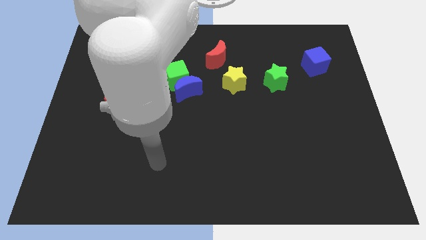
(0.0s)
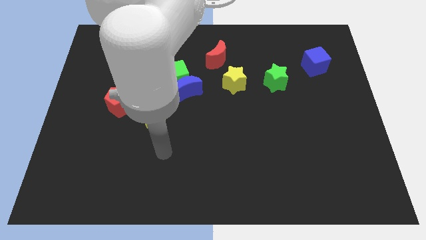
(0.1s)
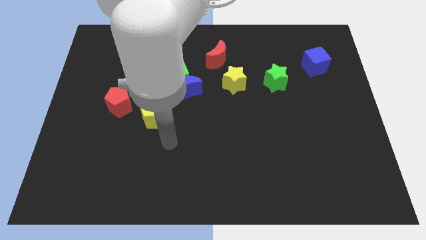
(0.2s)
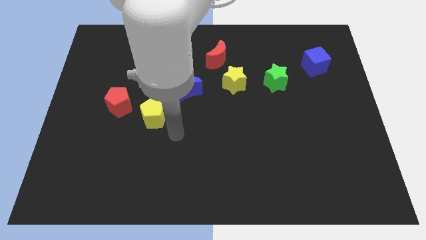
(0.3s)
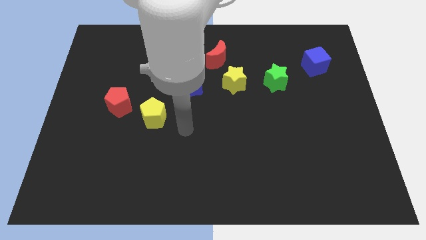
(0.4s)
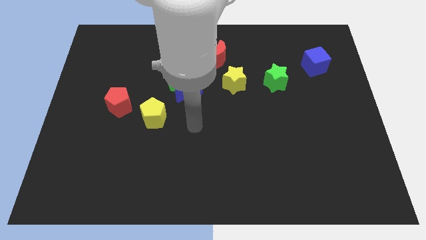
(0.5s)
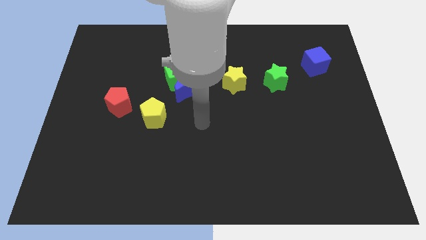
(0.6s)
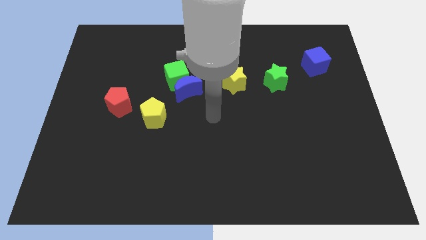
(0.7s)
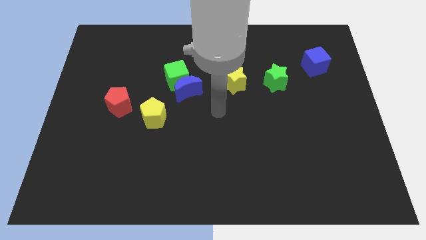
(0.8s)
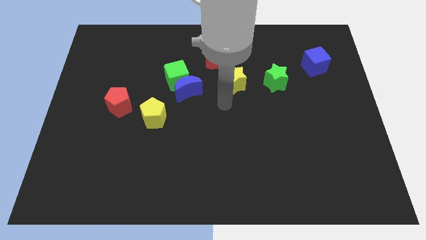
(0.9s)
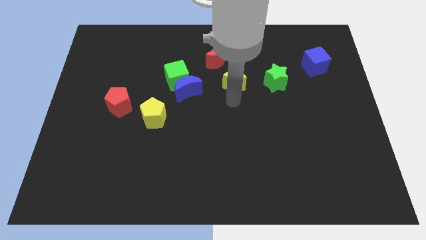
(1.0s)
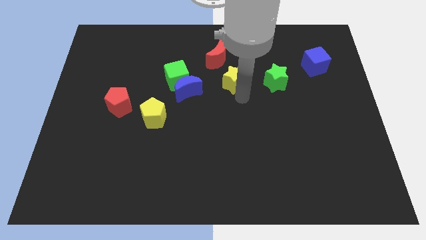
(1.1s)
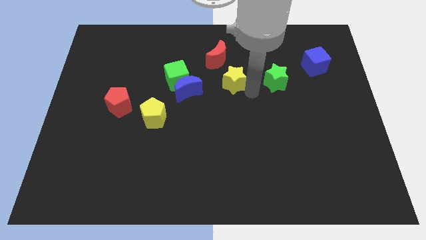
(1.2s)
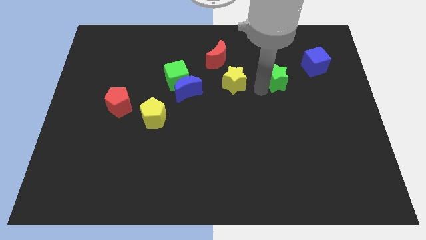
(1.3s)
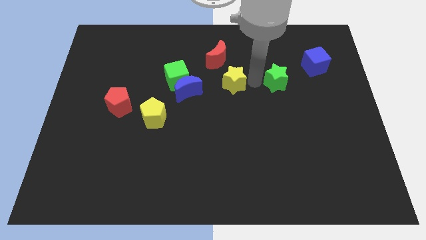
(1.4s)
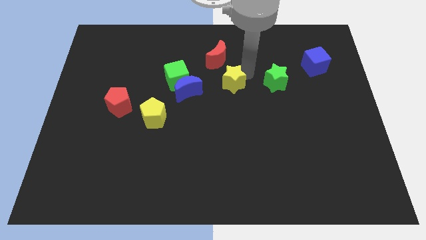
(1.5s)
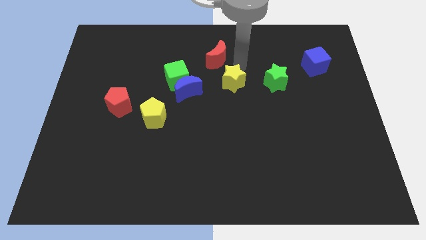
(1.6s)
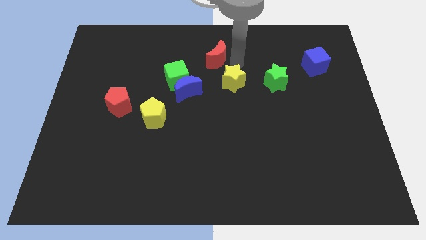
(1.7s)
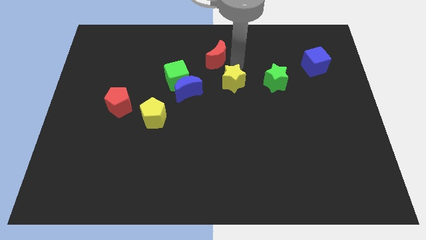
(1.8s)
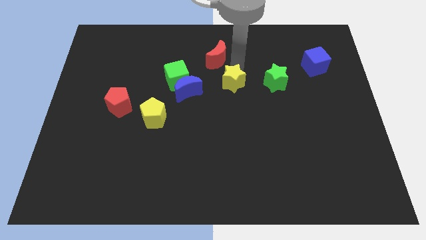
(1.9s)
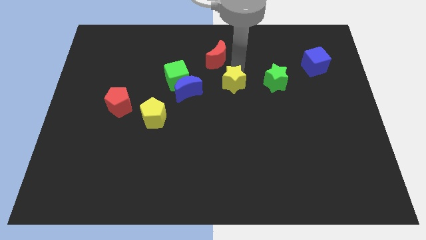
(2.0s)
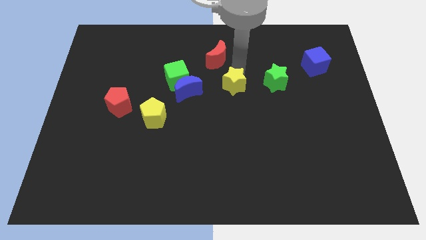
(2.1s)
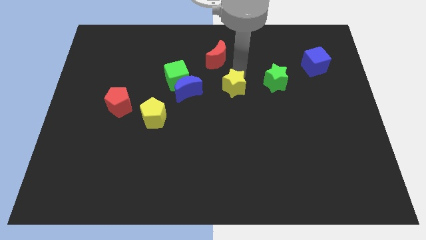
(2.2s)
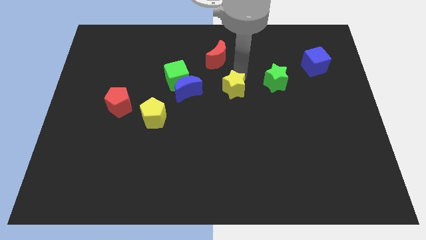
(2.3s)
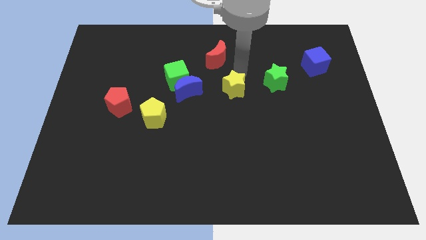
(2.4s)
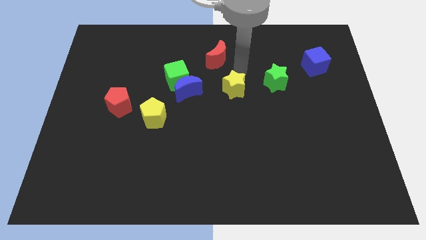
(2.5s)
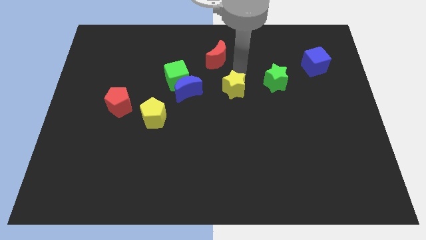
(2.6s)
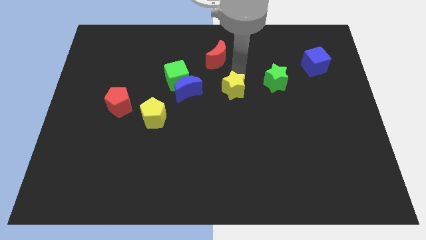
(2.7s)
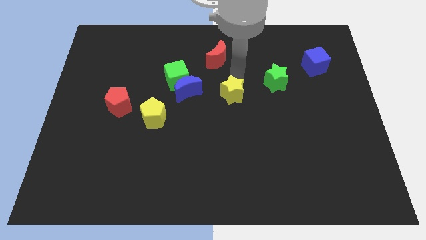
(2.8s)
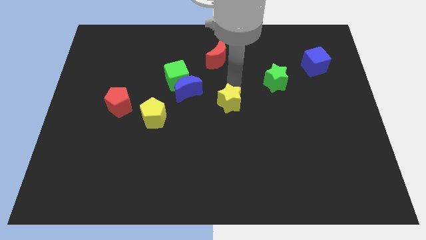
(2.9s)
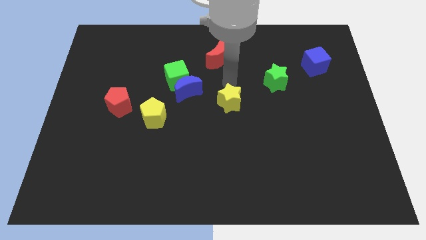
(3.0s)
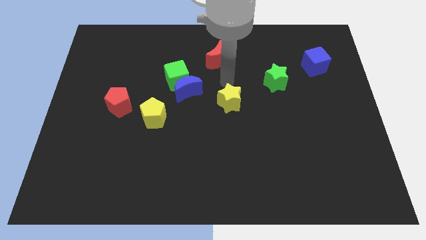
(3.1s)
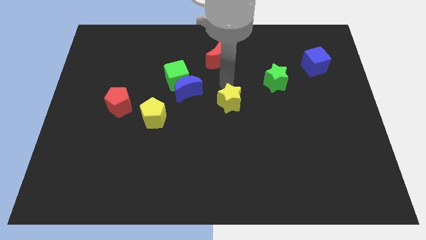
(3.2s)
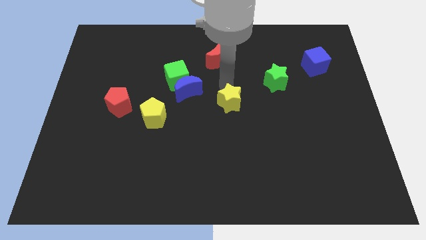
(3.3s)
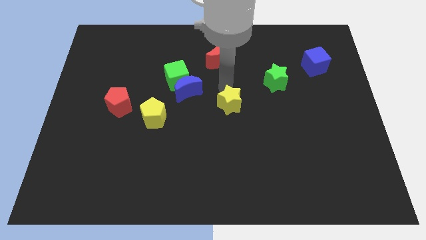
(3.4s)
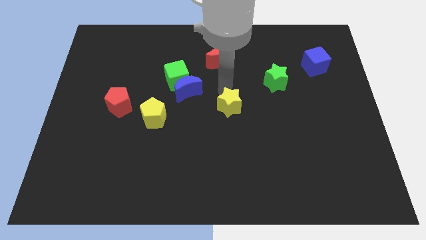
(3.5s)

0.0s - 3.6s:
push the yellow star a bit downwards

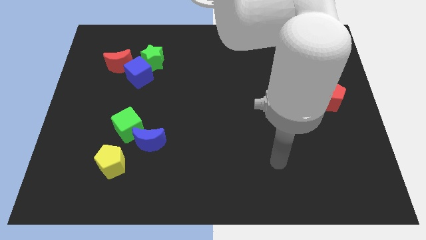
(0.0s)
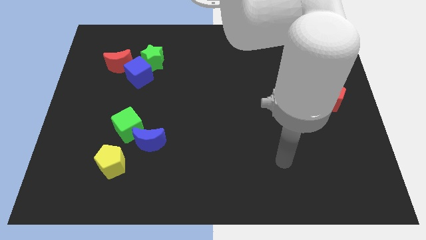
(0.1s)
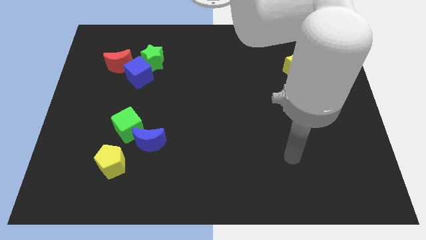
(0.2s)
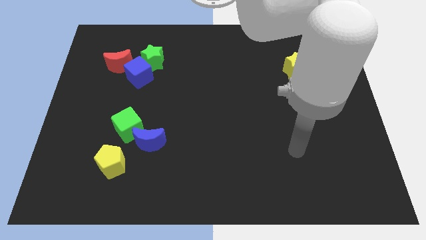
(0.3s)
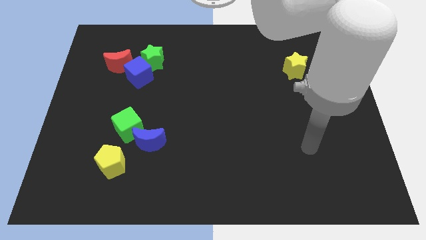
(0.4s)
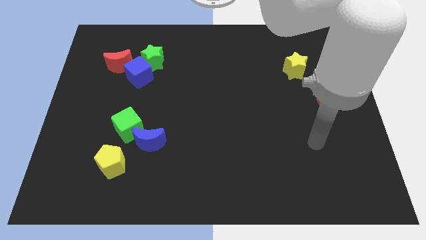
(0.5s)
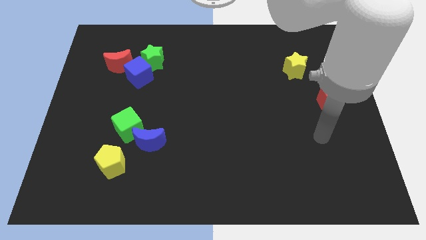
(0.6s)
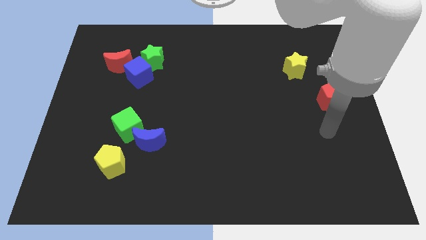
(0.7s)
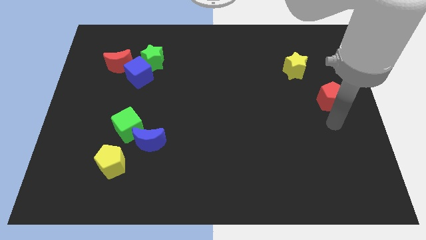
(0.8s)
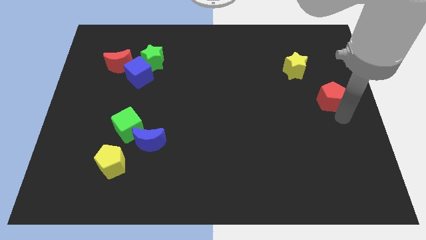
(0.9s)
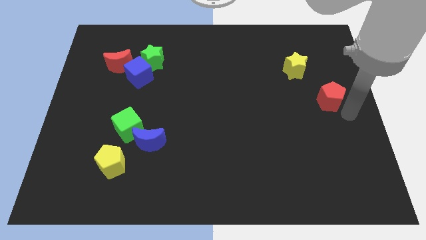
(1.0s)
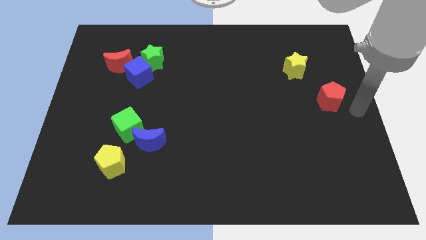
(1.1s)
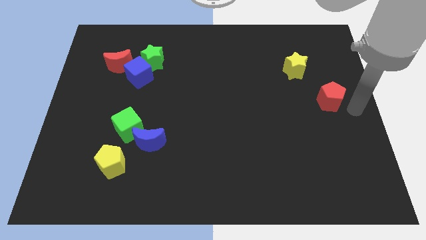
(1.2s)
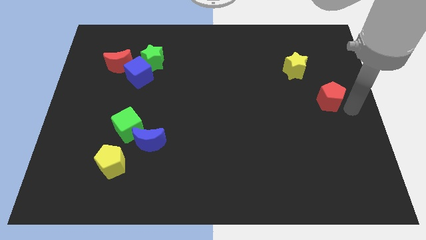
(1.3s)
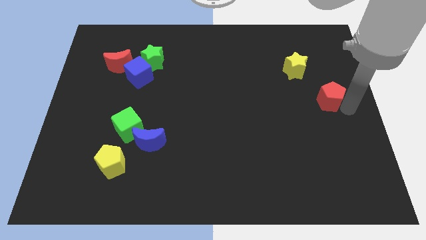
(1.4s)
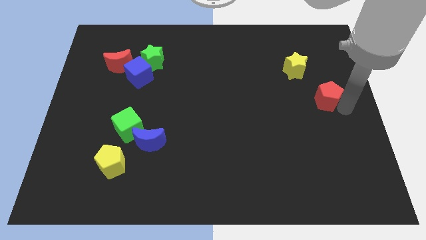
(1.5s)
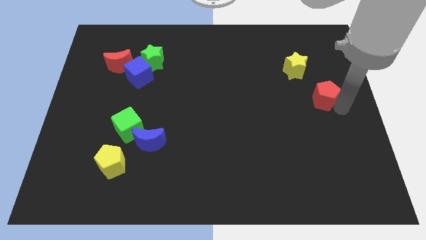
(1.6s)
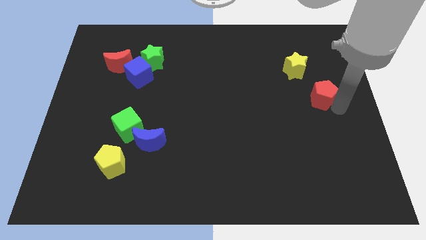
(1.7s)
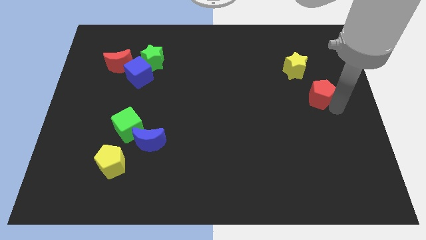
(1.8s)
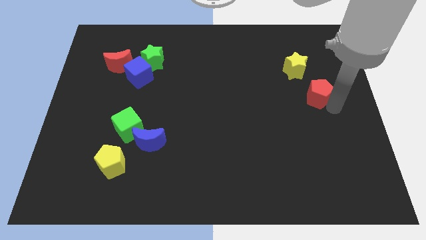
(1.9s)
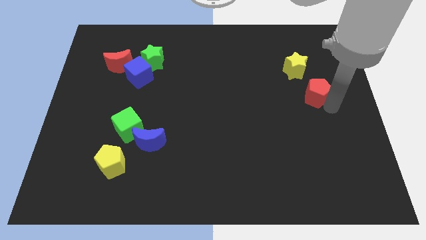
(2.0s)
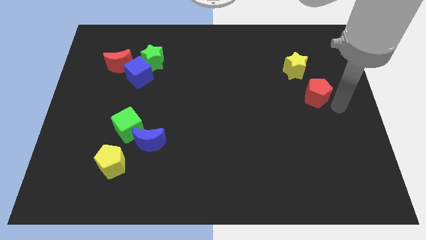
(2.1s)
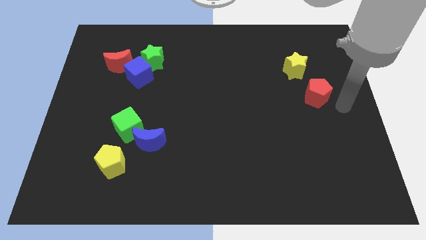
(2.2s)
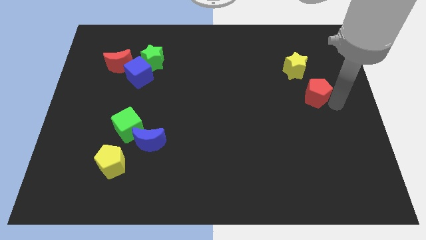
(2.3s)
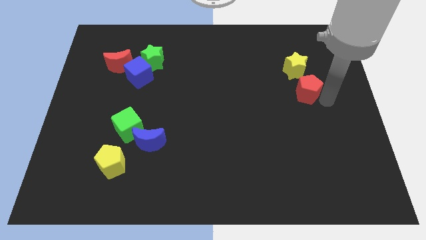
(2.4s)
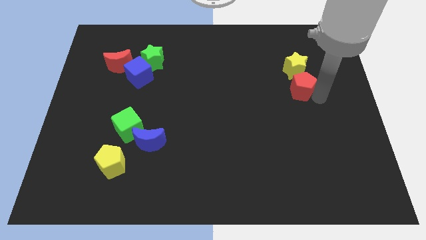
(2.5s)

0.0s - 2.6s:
slightly slide the red pentagon diagonally upwards and left

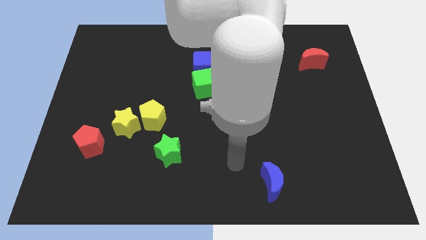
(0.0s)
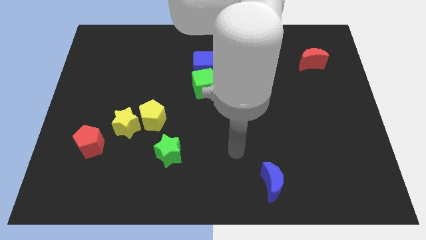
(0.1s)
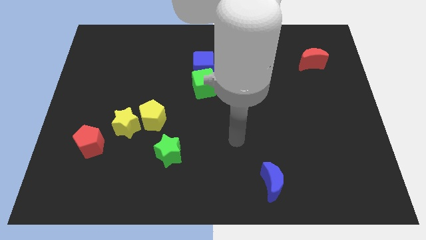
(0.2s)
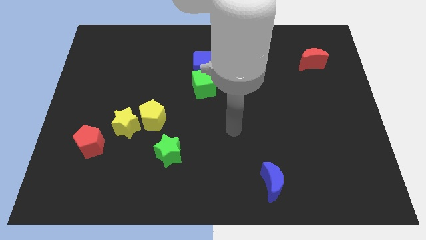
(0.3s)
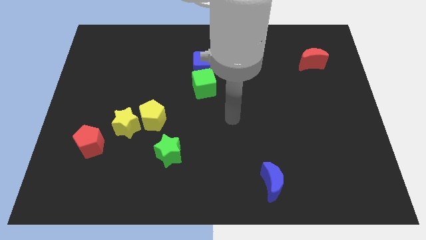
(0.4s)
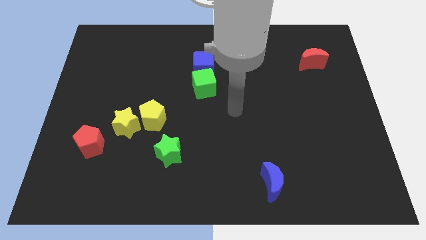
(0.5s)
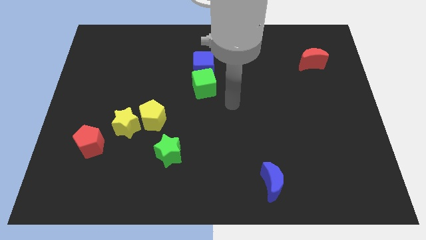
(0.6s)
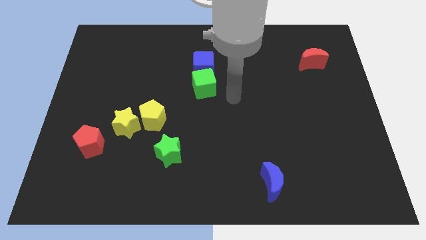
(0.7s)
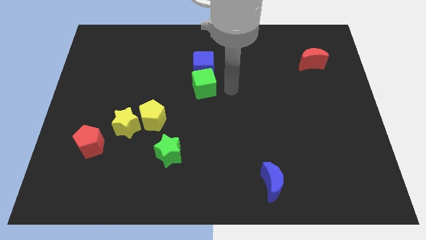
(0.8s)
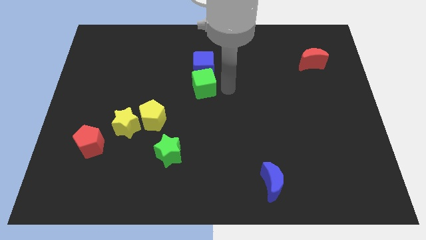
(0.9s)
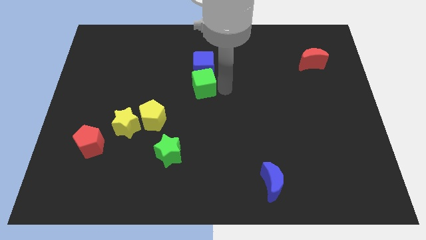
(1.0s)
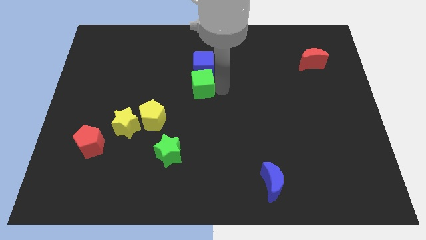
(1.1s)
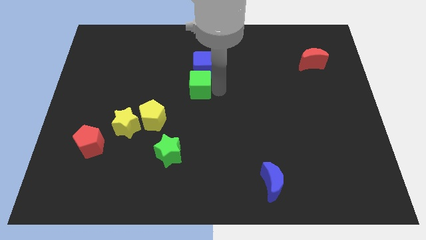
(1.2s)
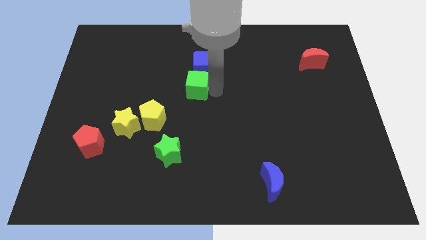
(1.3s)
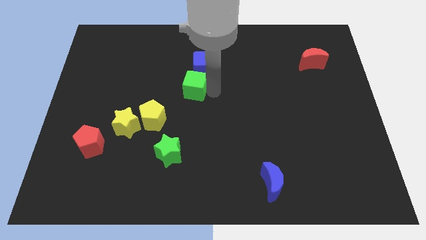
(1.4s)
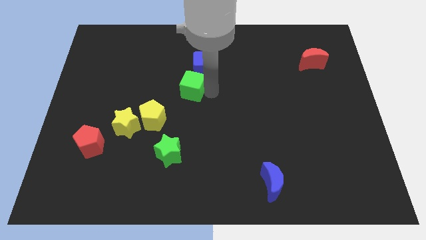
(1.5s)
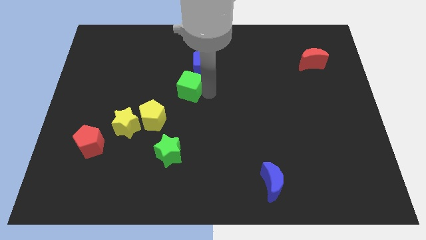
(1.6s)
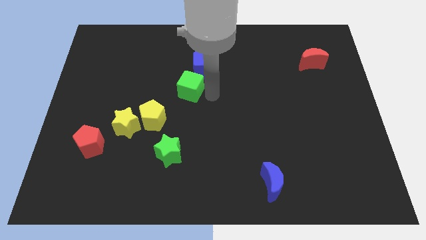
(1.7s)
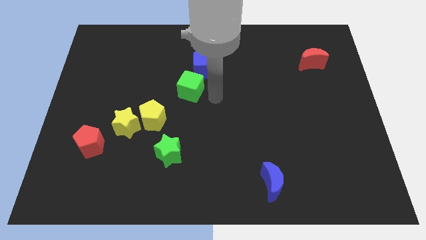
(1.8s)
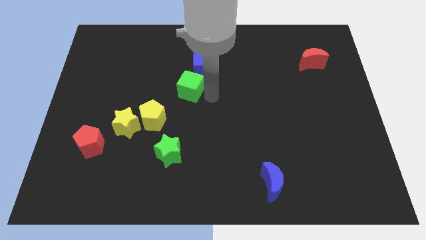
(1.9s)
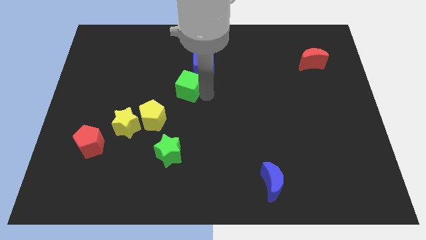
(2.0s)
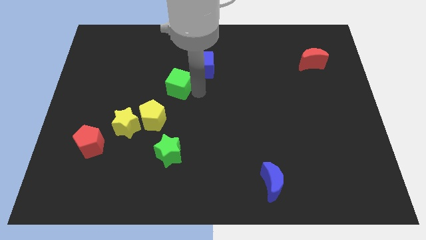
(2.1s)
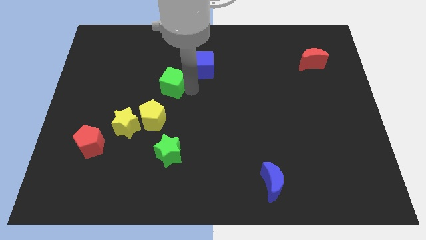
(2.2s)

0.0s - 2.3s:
slide the green cube slightly left
